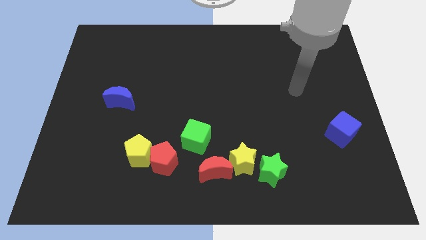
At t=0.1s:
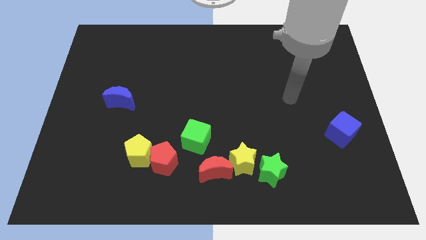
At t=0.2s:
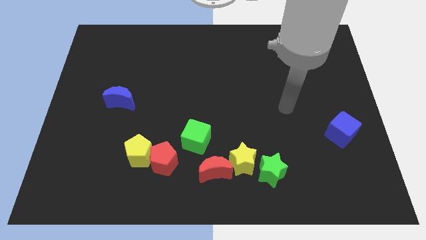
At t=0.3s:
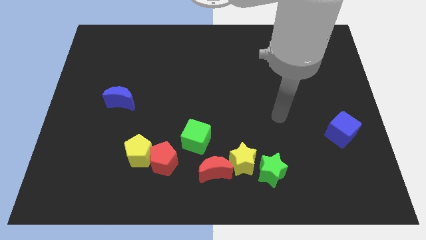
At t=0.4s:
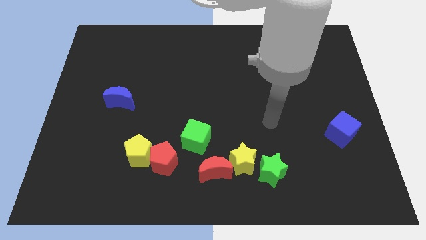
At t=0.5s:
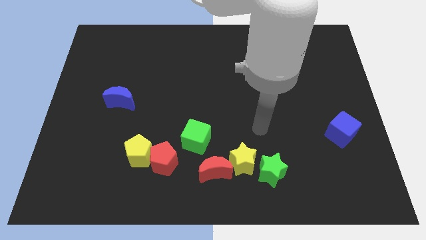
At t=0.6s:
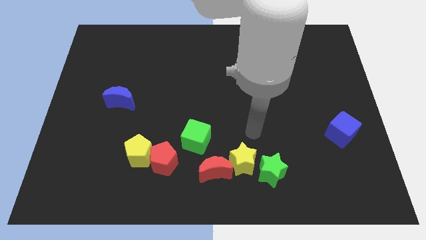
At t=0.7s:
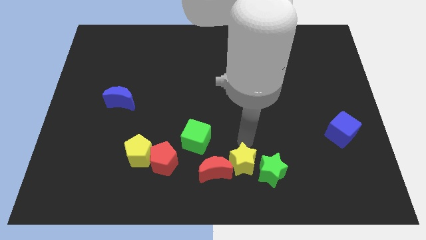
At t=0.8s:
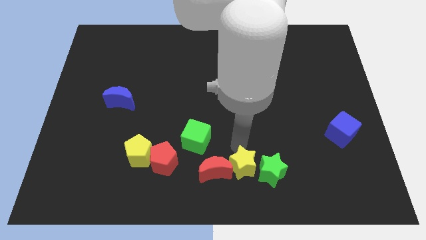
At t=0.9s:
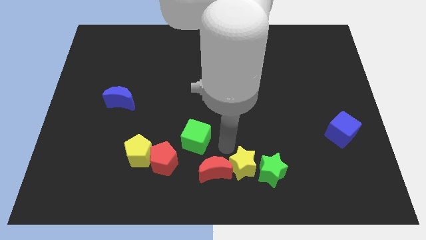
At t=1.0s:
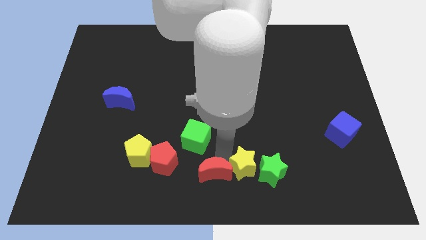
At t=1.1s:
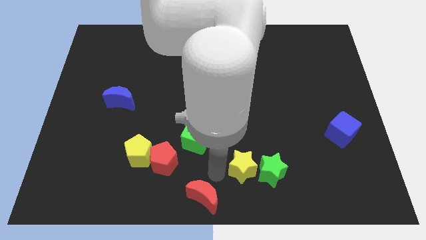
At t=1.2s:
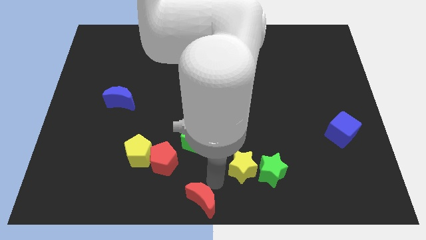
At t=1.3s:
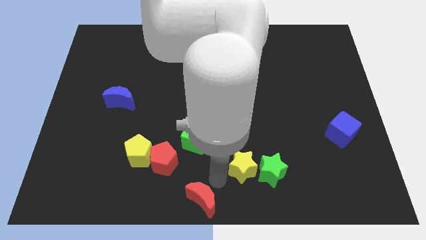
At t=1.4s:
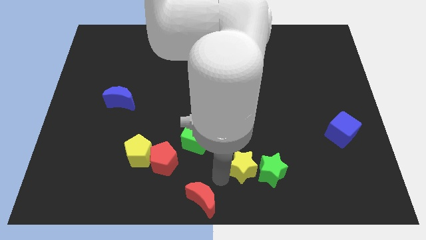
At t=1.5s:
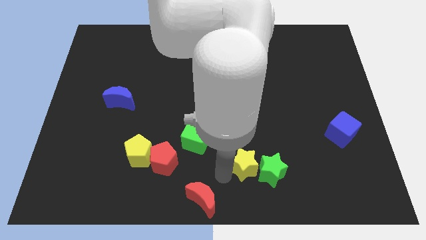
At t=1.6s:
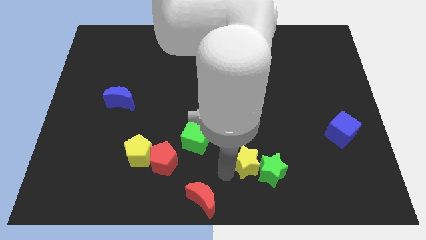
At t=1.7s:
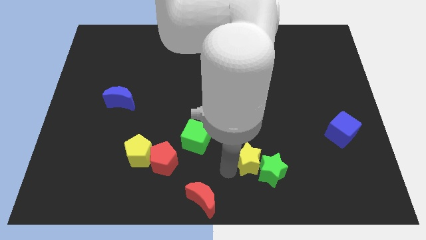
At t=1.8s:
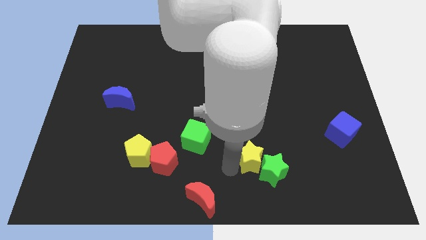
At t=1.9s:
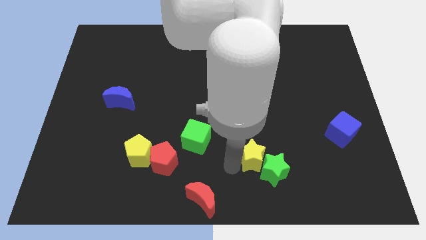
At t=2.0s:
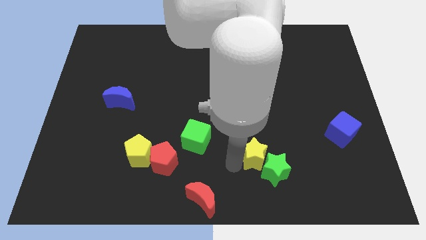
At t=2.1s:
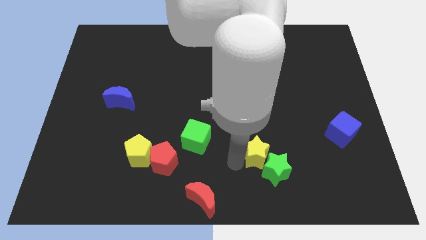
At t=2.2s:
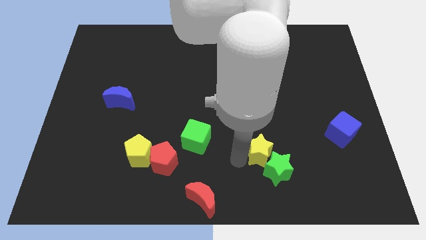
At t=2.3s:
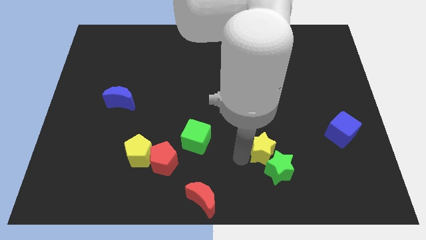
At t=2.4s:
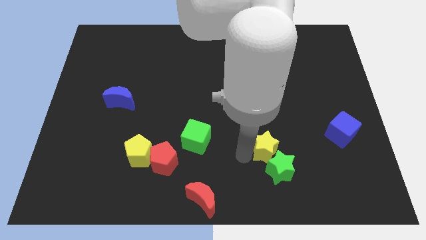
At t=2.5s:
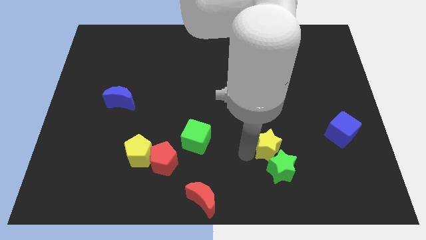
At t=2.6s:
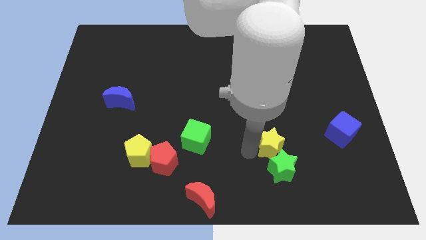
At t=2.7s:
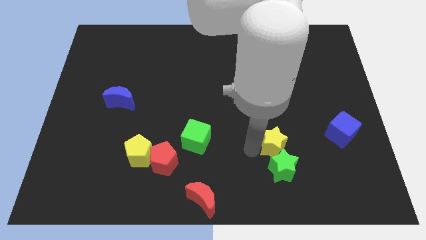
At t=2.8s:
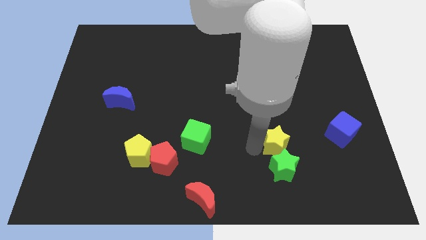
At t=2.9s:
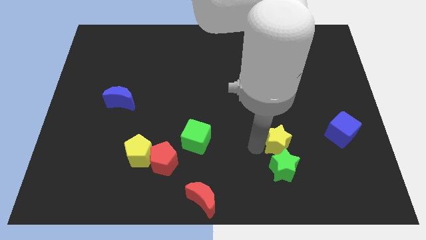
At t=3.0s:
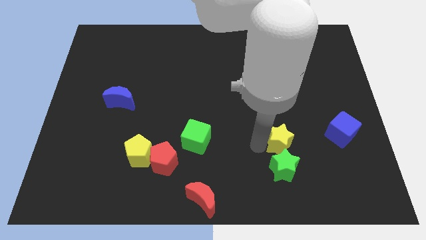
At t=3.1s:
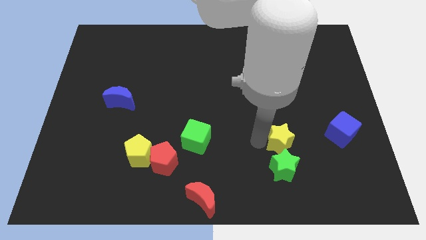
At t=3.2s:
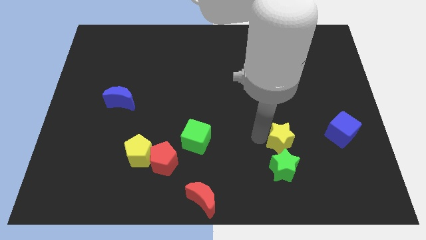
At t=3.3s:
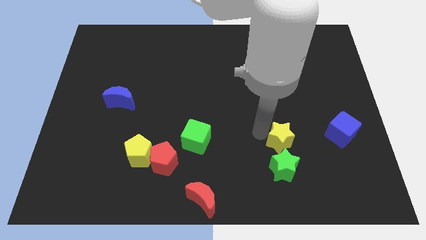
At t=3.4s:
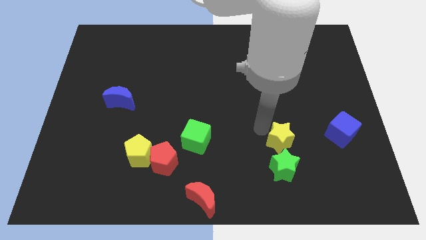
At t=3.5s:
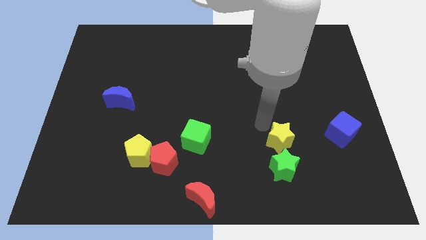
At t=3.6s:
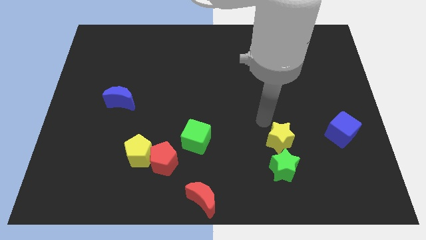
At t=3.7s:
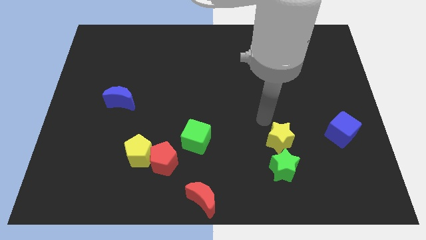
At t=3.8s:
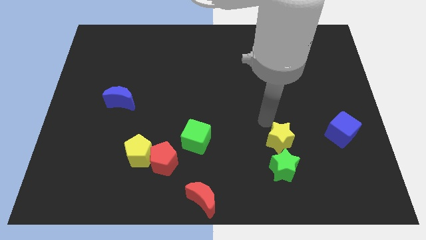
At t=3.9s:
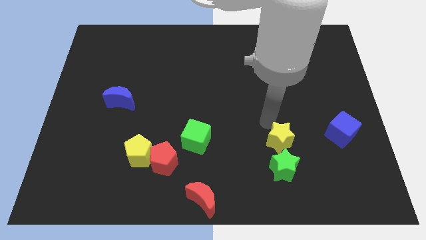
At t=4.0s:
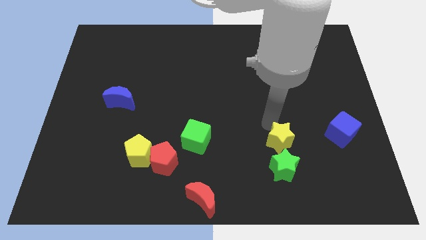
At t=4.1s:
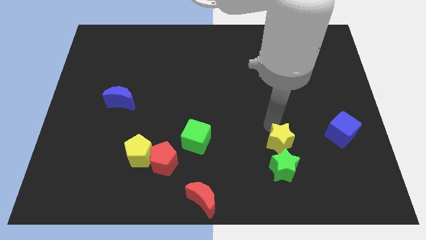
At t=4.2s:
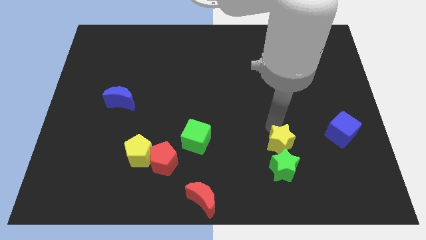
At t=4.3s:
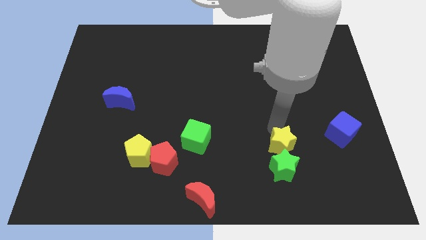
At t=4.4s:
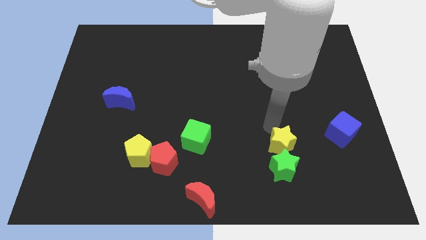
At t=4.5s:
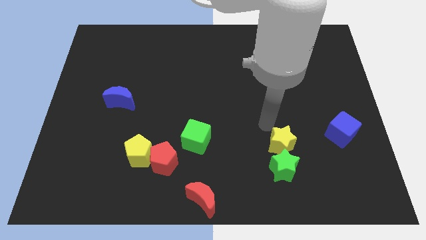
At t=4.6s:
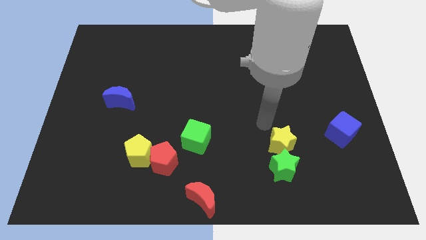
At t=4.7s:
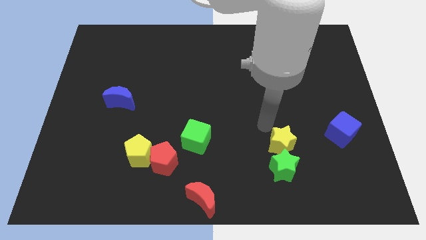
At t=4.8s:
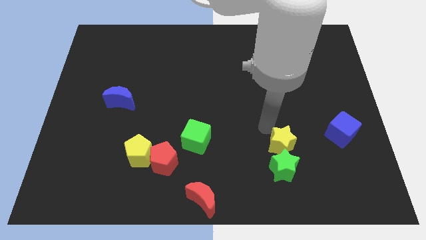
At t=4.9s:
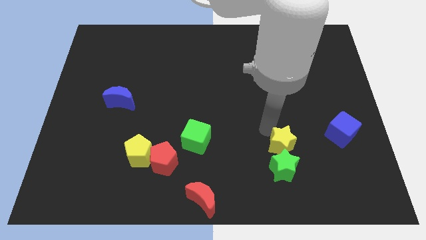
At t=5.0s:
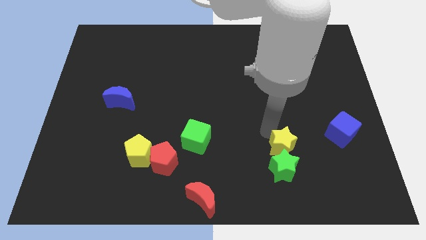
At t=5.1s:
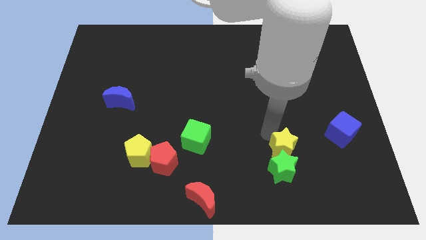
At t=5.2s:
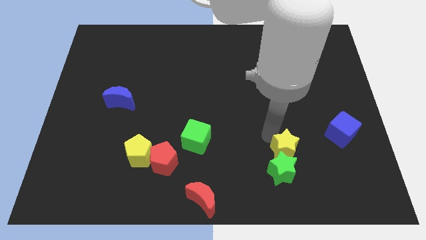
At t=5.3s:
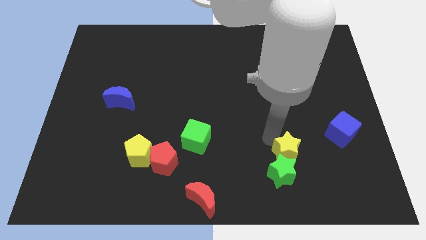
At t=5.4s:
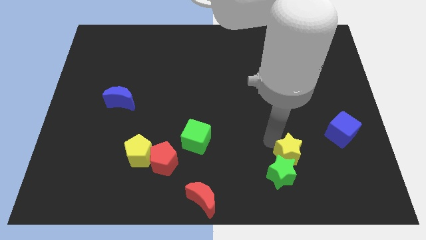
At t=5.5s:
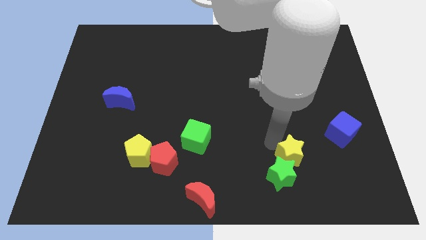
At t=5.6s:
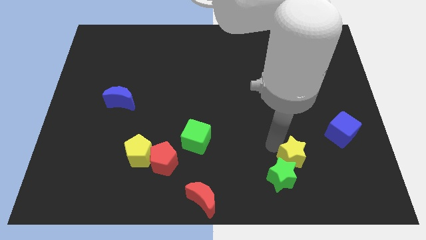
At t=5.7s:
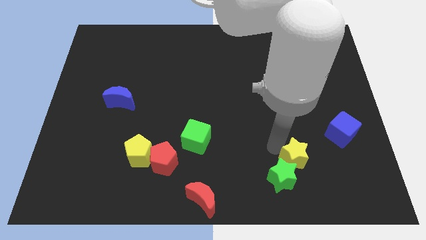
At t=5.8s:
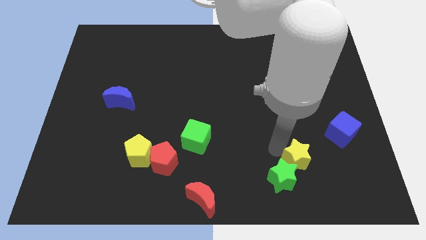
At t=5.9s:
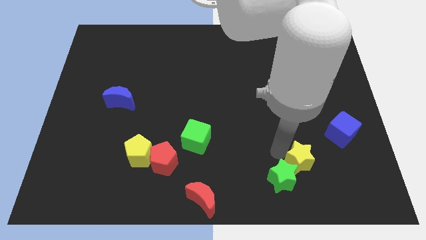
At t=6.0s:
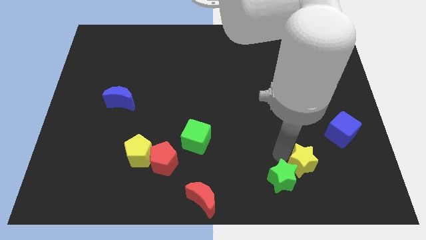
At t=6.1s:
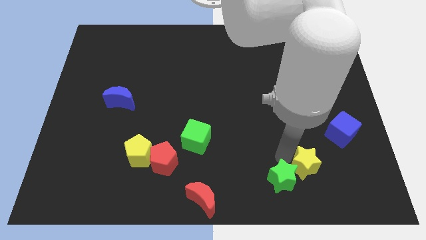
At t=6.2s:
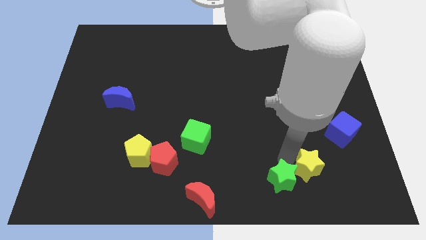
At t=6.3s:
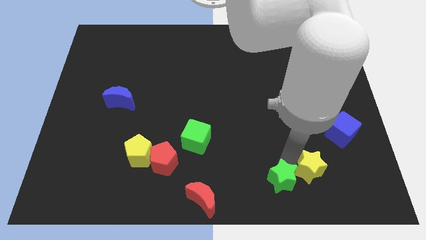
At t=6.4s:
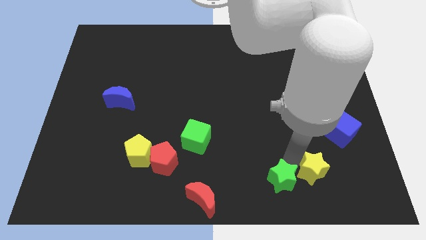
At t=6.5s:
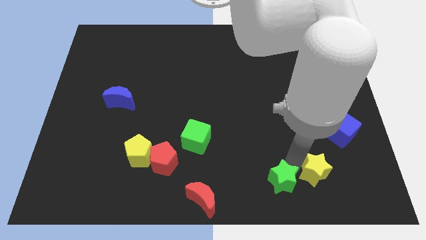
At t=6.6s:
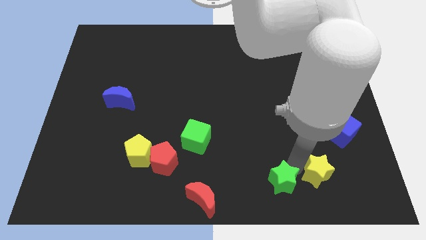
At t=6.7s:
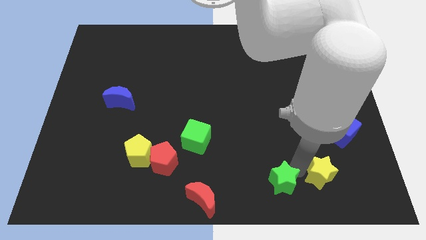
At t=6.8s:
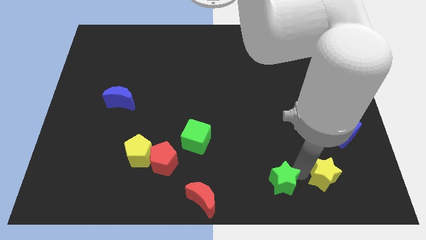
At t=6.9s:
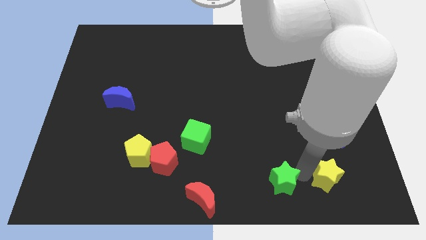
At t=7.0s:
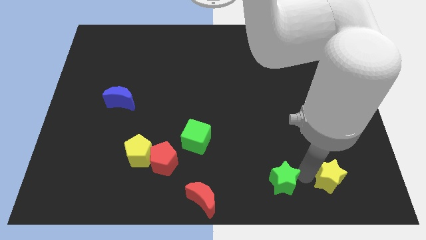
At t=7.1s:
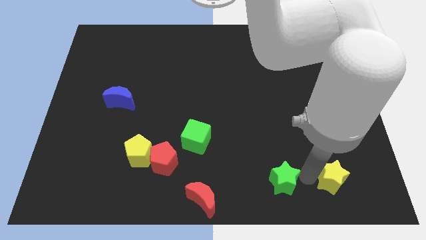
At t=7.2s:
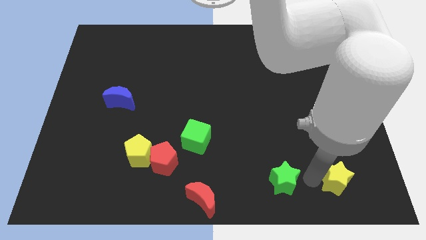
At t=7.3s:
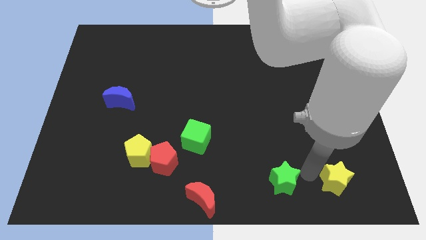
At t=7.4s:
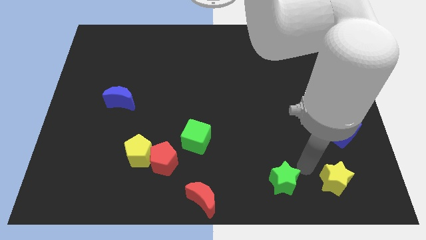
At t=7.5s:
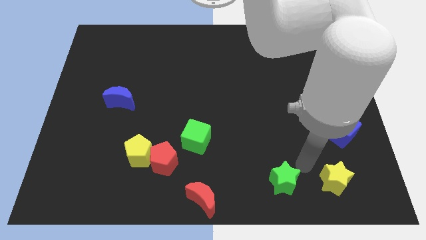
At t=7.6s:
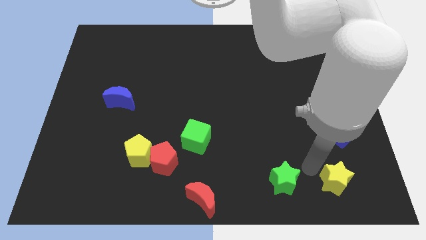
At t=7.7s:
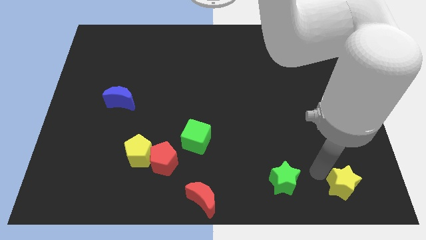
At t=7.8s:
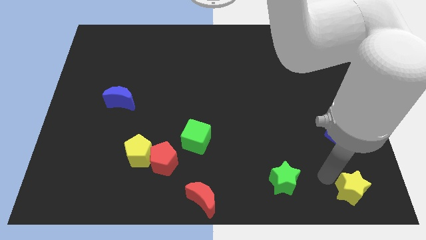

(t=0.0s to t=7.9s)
put the yellow star to the bottom right corner
